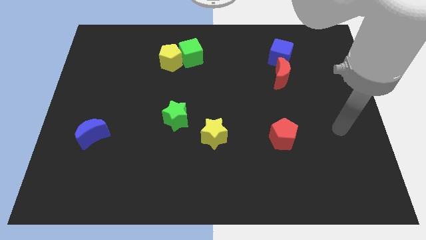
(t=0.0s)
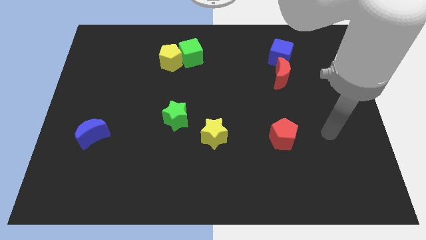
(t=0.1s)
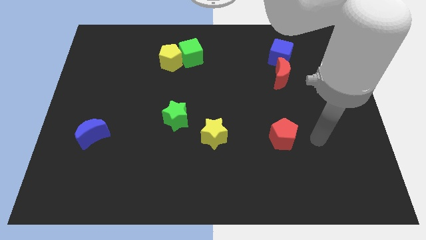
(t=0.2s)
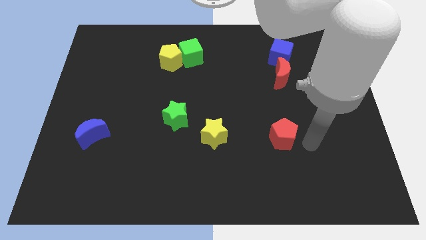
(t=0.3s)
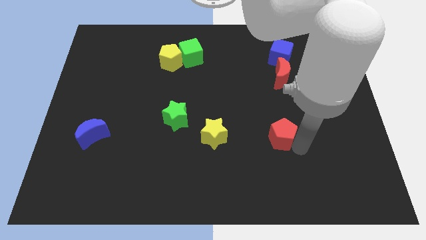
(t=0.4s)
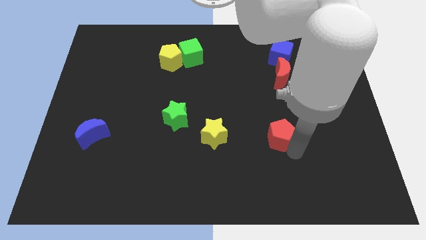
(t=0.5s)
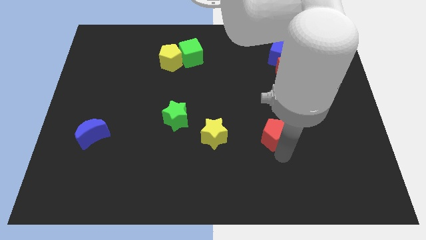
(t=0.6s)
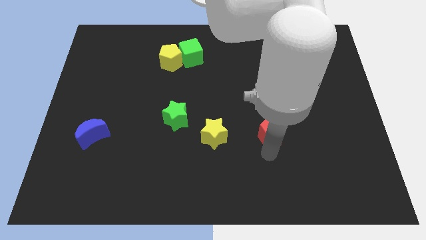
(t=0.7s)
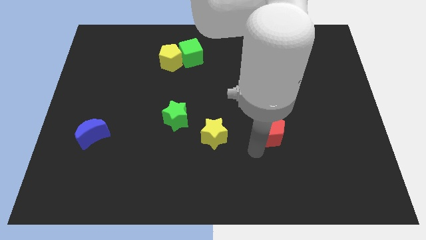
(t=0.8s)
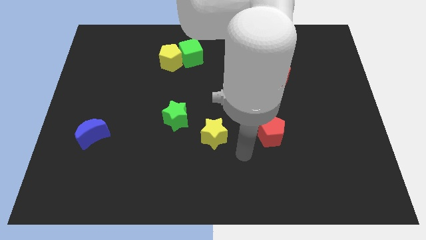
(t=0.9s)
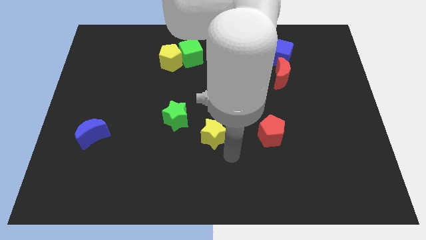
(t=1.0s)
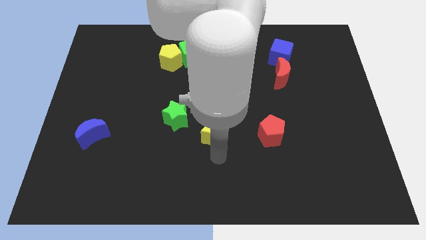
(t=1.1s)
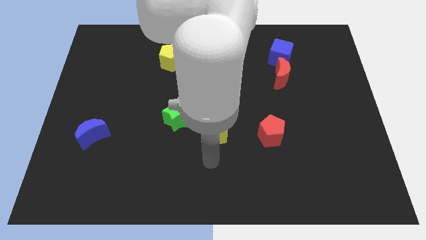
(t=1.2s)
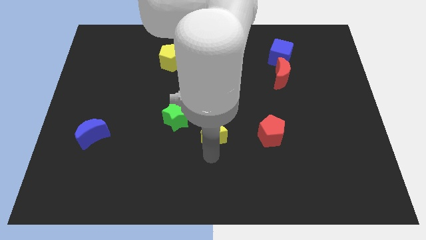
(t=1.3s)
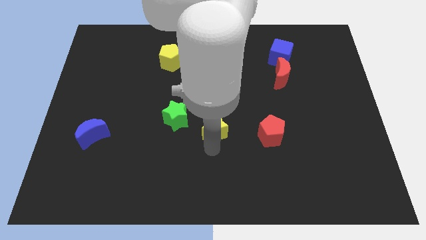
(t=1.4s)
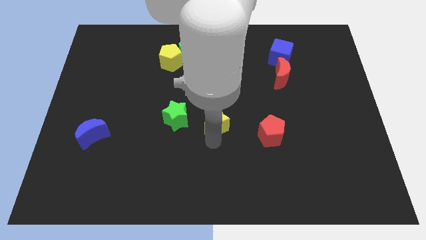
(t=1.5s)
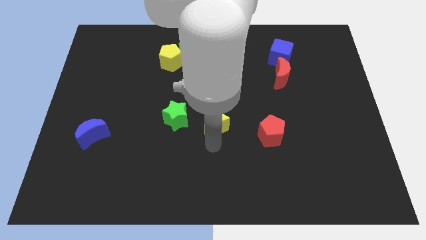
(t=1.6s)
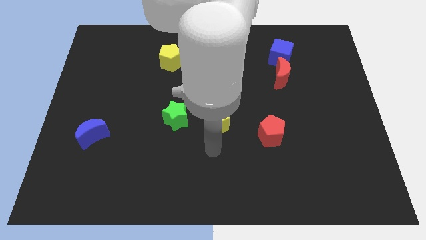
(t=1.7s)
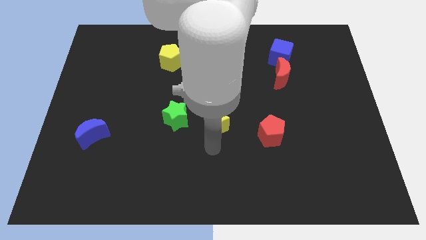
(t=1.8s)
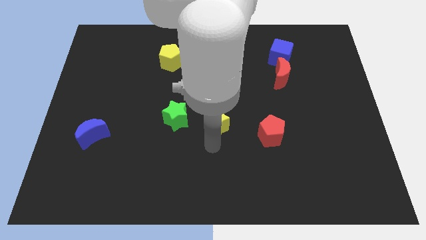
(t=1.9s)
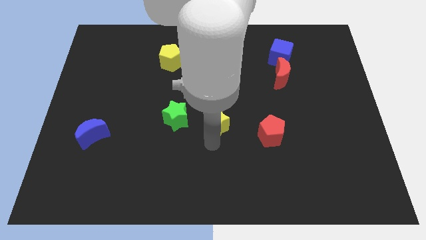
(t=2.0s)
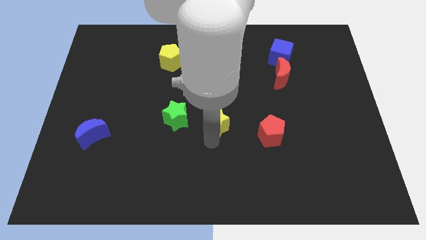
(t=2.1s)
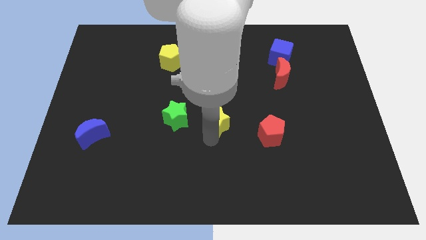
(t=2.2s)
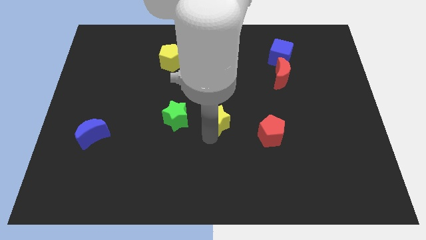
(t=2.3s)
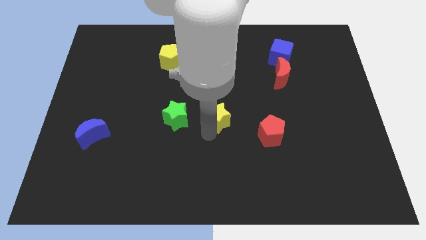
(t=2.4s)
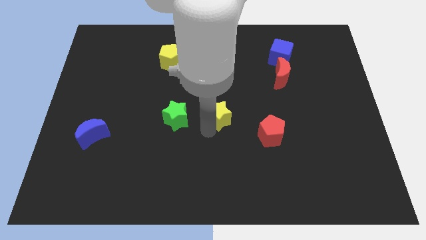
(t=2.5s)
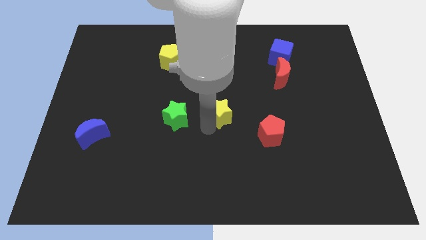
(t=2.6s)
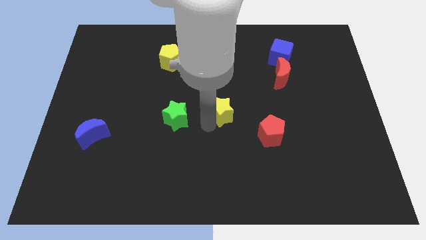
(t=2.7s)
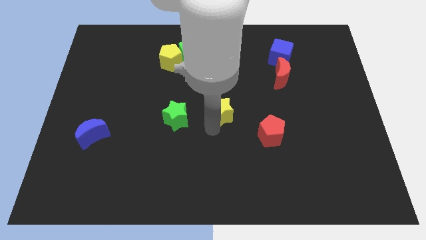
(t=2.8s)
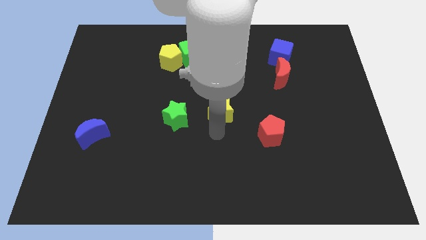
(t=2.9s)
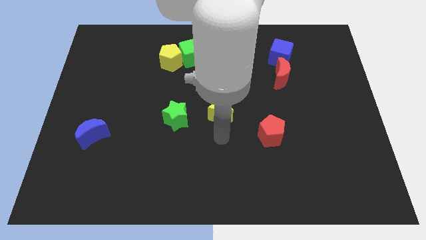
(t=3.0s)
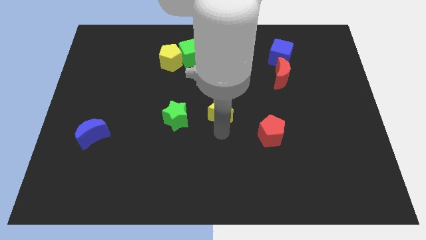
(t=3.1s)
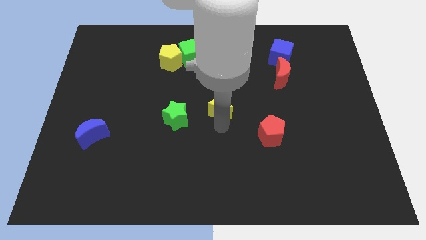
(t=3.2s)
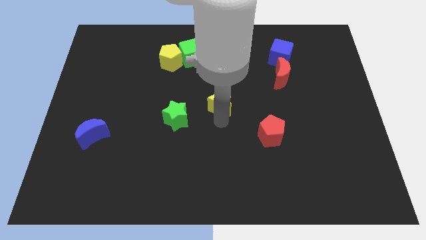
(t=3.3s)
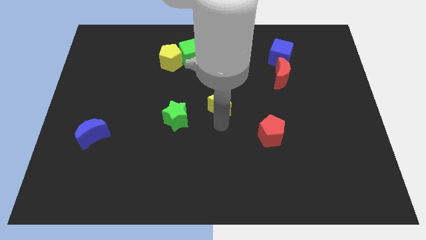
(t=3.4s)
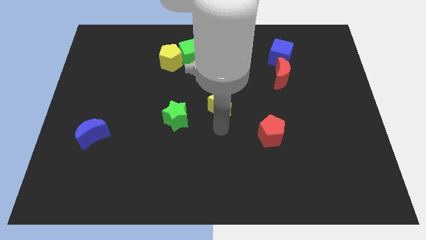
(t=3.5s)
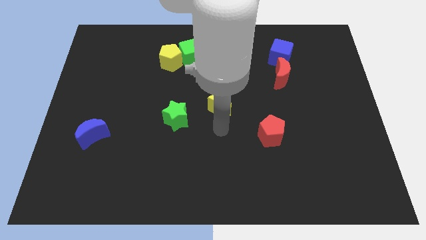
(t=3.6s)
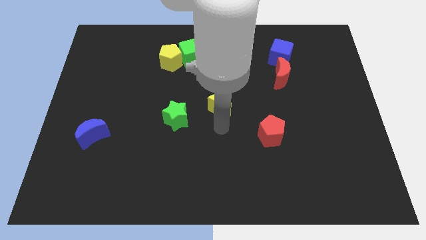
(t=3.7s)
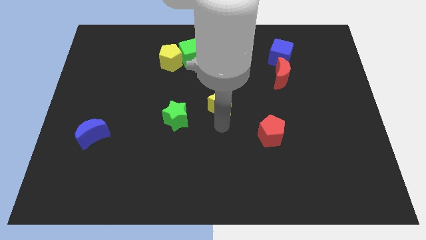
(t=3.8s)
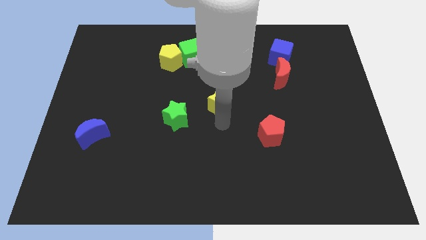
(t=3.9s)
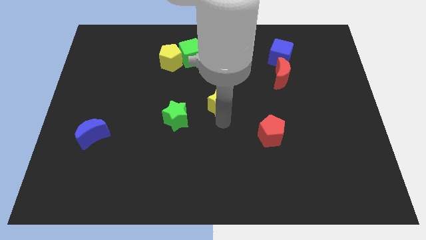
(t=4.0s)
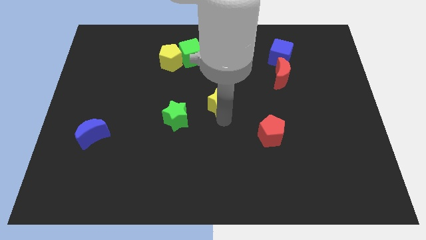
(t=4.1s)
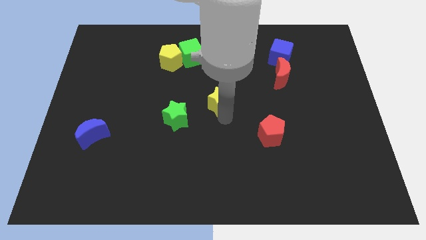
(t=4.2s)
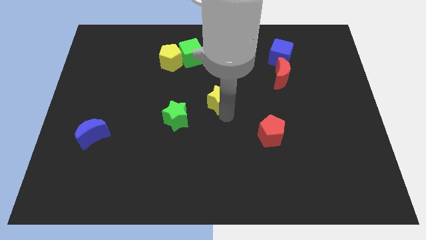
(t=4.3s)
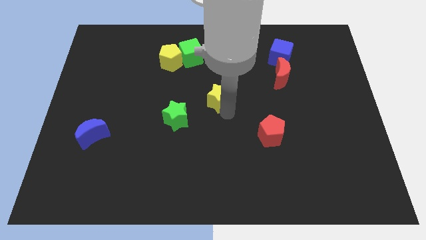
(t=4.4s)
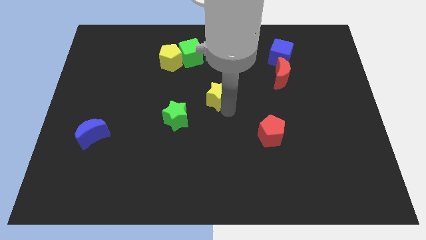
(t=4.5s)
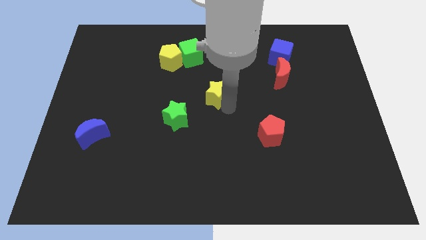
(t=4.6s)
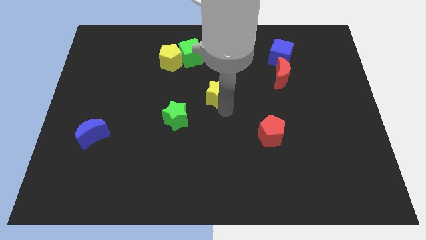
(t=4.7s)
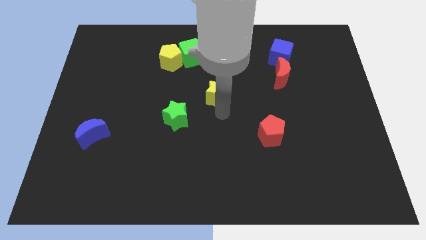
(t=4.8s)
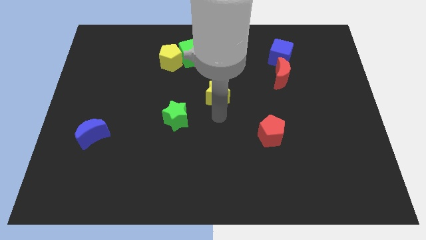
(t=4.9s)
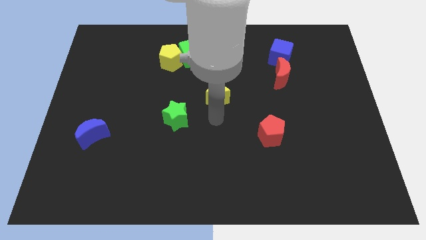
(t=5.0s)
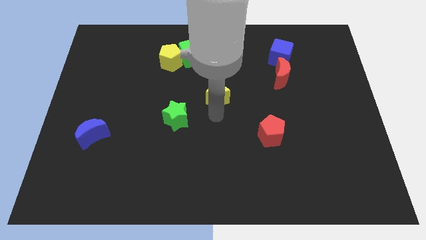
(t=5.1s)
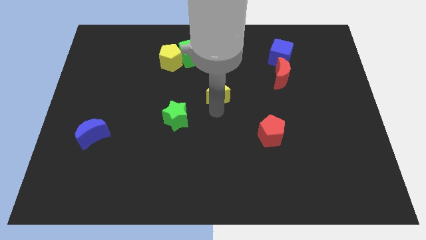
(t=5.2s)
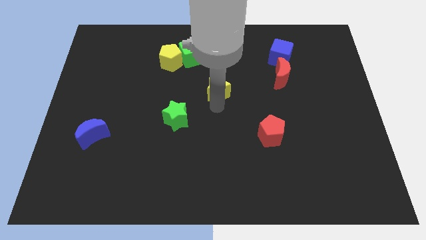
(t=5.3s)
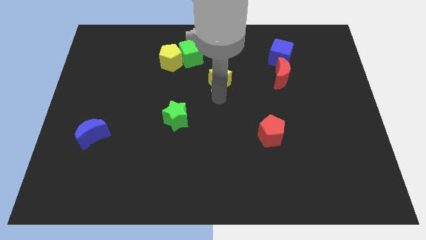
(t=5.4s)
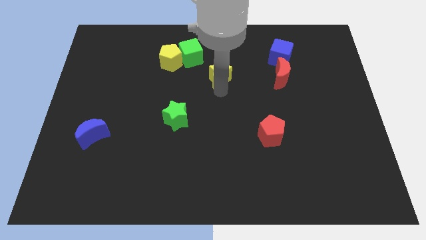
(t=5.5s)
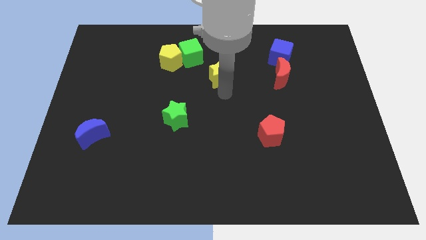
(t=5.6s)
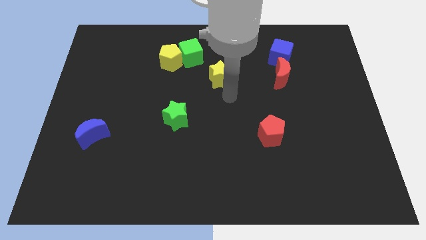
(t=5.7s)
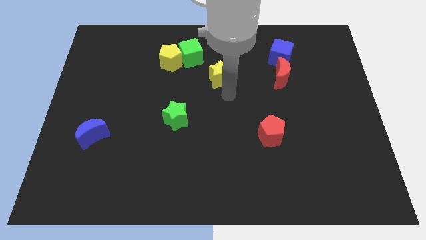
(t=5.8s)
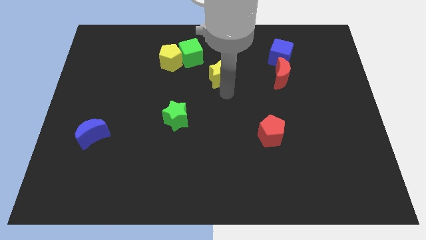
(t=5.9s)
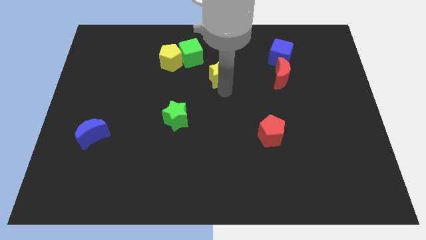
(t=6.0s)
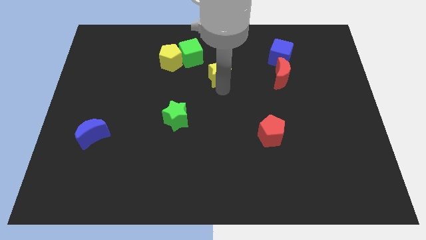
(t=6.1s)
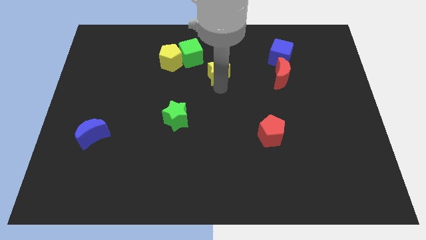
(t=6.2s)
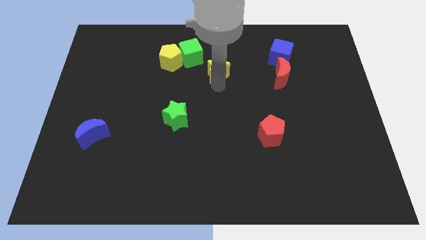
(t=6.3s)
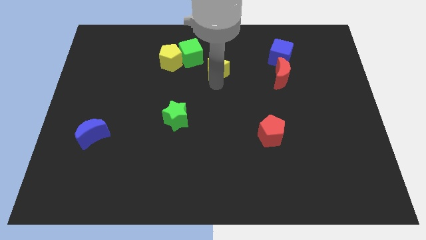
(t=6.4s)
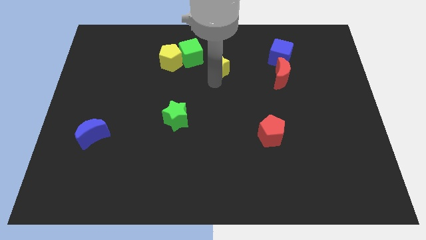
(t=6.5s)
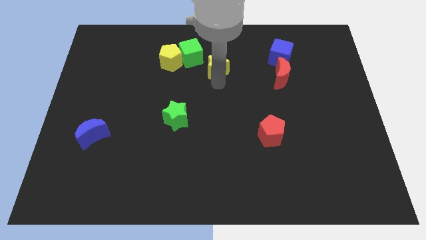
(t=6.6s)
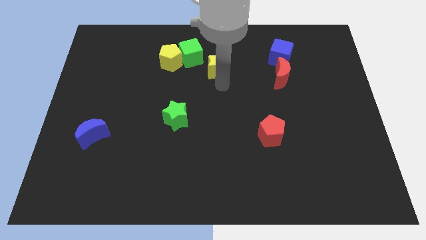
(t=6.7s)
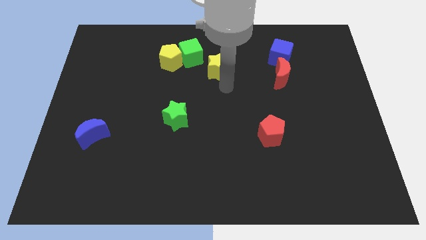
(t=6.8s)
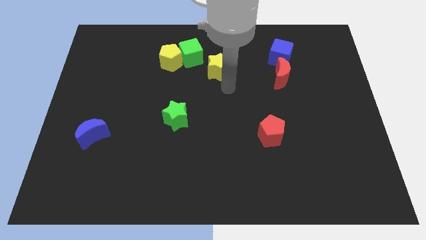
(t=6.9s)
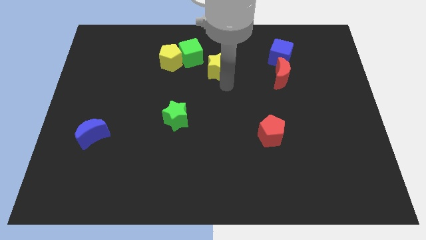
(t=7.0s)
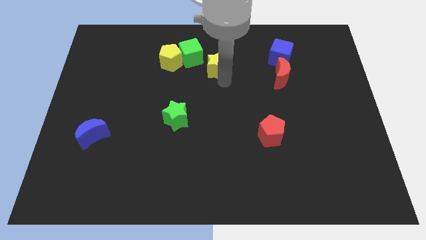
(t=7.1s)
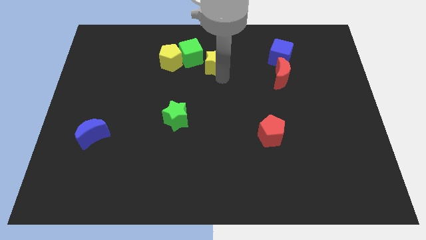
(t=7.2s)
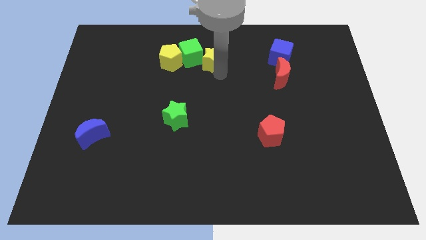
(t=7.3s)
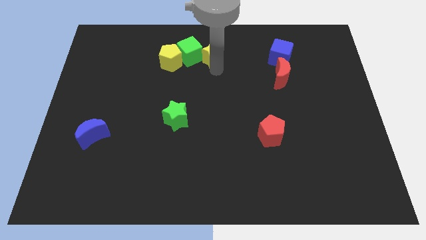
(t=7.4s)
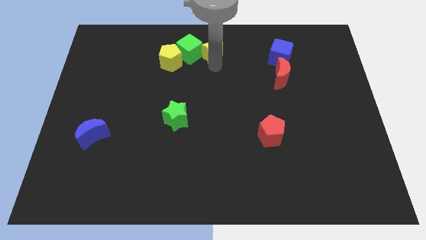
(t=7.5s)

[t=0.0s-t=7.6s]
move the yellow star to the top side
